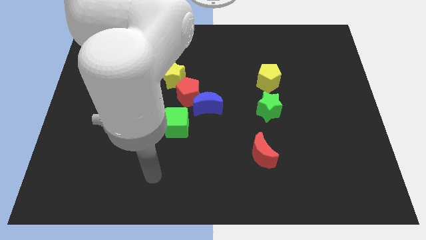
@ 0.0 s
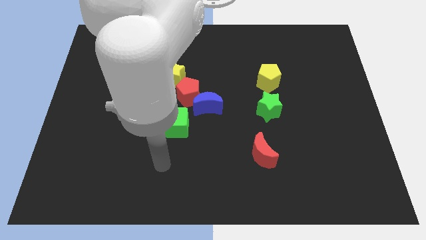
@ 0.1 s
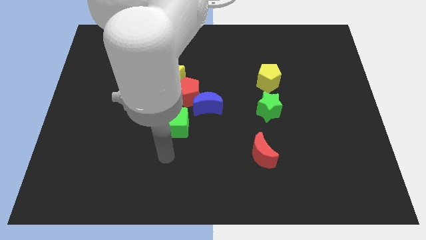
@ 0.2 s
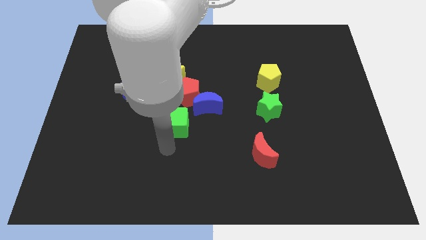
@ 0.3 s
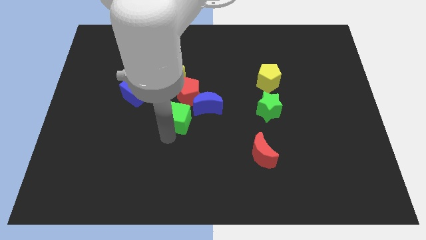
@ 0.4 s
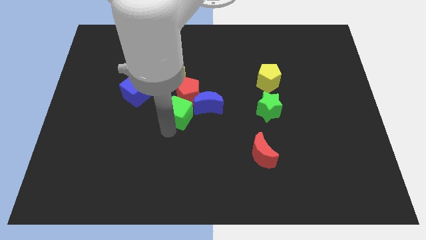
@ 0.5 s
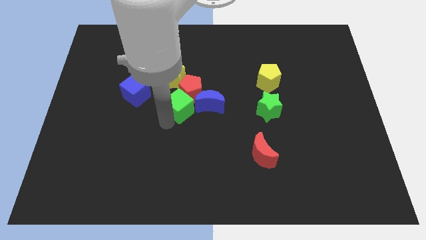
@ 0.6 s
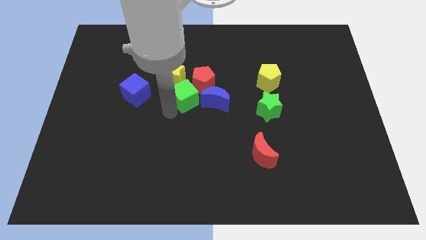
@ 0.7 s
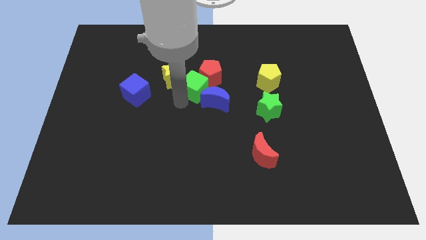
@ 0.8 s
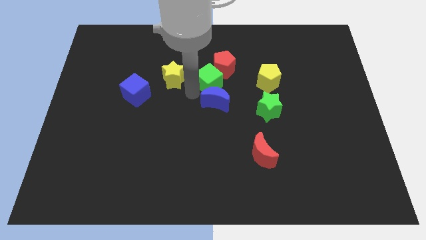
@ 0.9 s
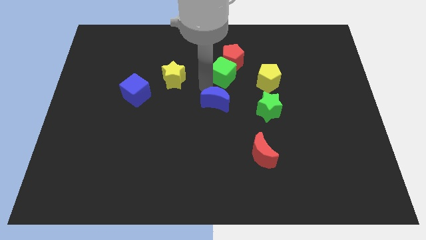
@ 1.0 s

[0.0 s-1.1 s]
move the blue moon away from the red pentagon and green cube

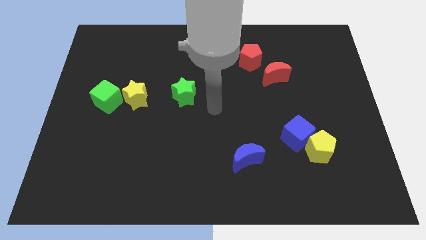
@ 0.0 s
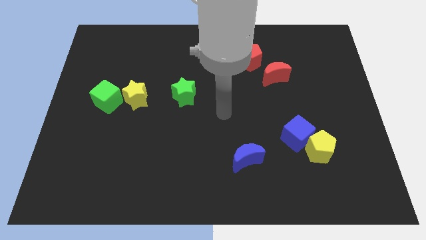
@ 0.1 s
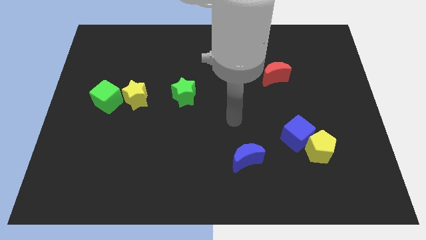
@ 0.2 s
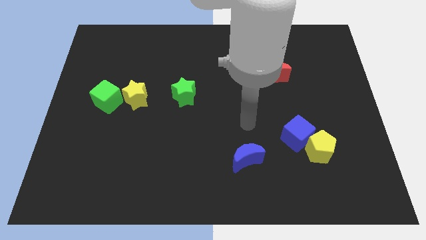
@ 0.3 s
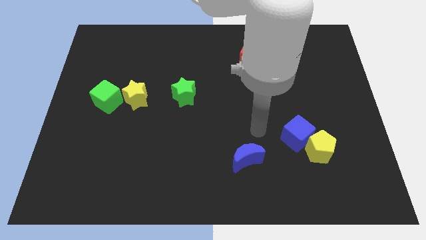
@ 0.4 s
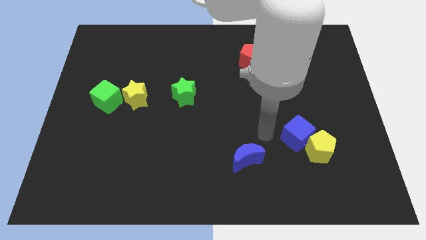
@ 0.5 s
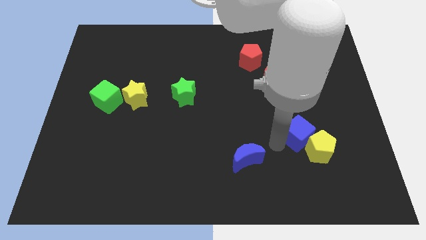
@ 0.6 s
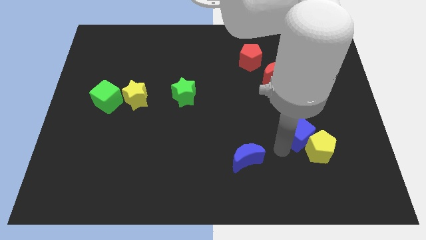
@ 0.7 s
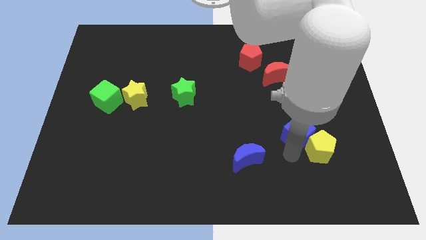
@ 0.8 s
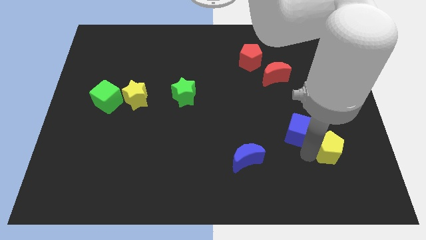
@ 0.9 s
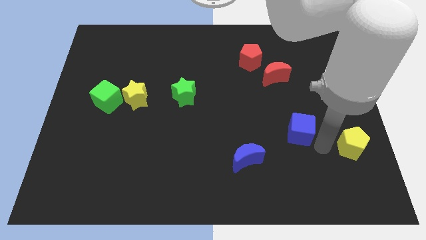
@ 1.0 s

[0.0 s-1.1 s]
pull the blue cube apart from the yellow pentagon

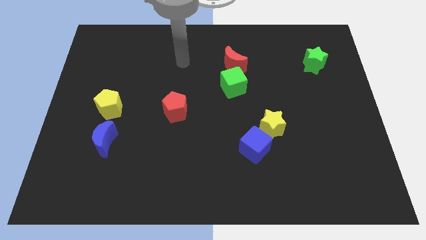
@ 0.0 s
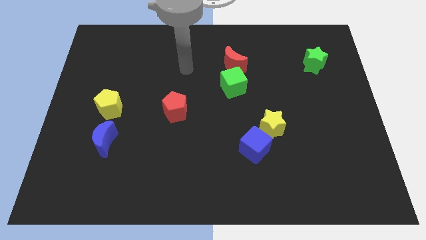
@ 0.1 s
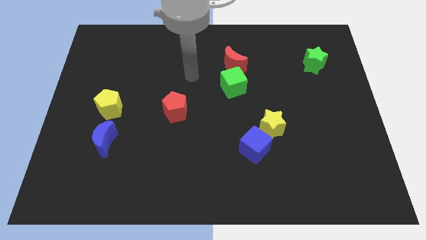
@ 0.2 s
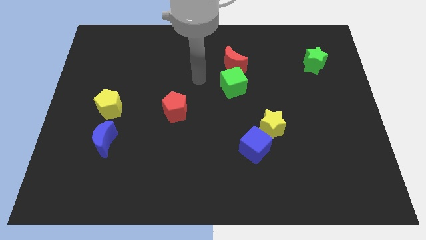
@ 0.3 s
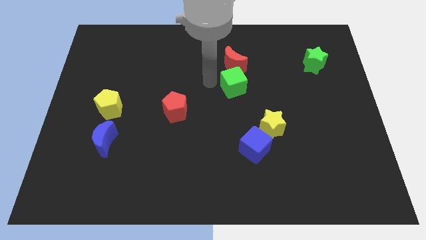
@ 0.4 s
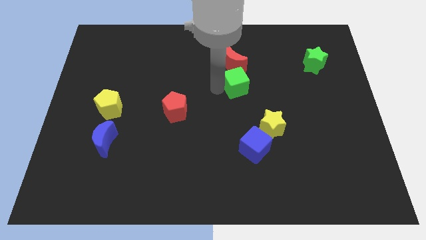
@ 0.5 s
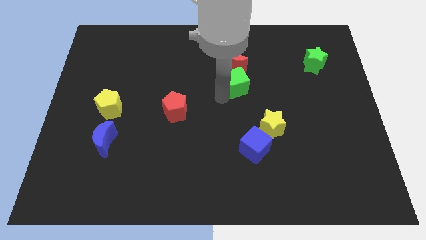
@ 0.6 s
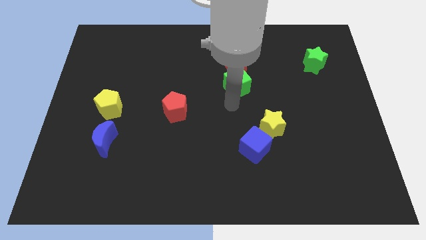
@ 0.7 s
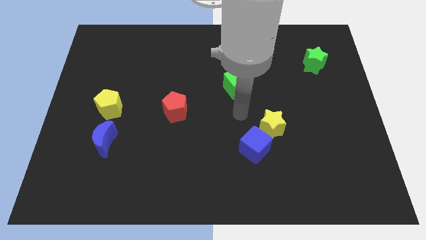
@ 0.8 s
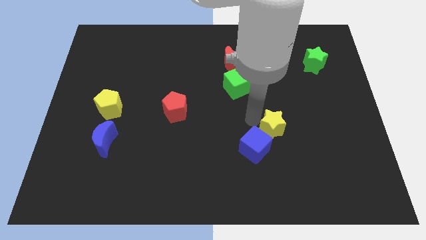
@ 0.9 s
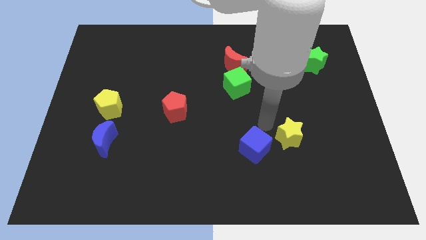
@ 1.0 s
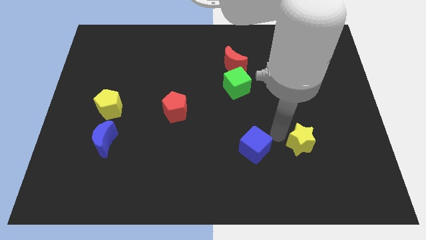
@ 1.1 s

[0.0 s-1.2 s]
separate the blue cube from the yellow star

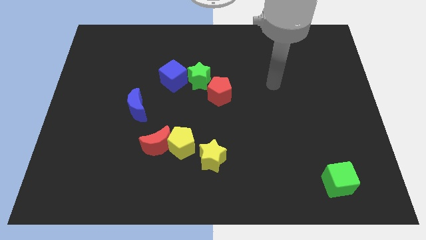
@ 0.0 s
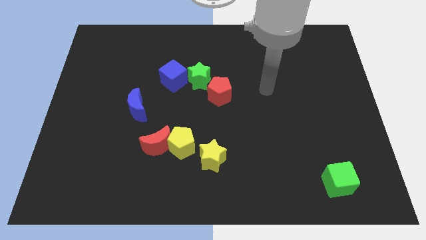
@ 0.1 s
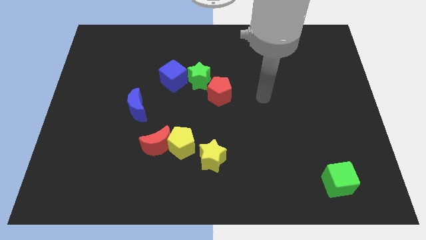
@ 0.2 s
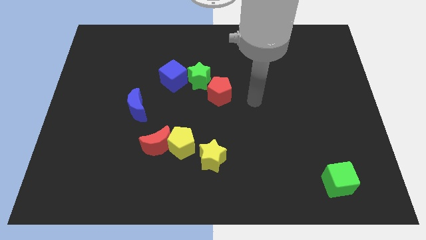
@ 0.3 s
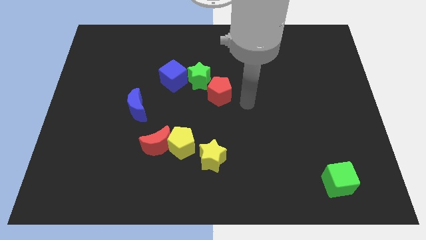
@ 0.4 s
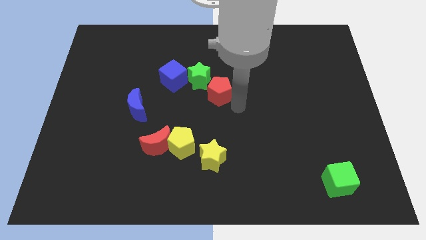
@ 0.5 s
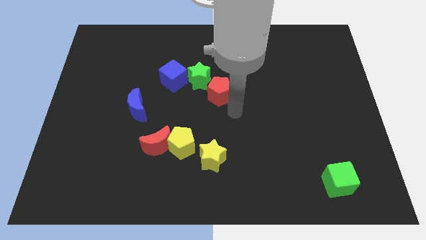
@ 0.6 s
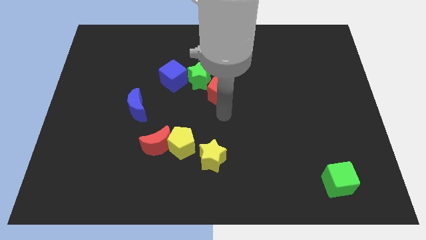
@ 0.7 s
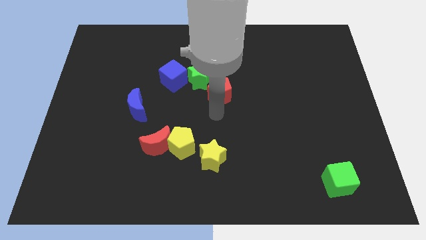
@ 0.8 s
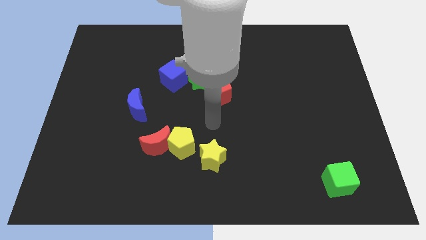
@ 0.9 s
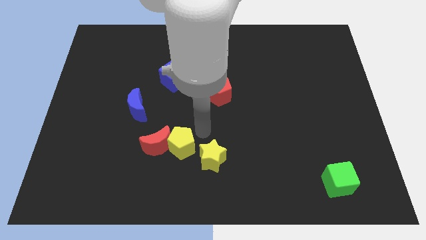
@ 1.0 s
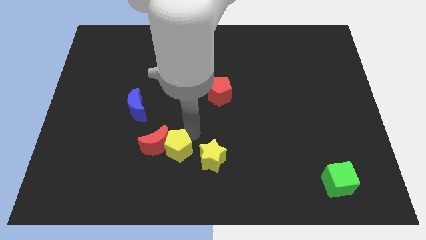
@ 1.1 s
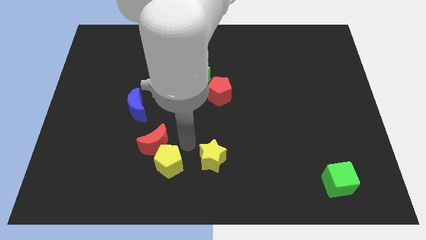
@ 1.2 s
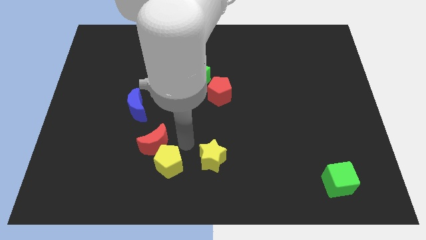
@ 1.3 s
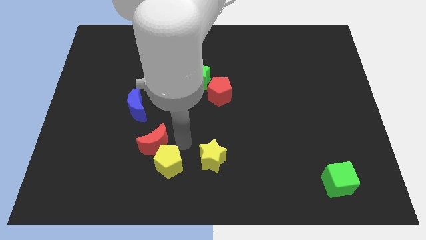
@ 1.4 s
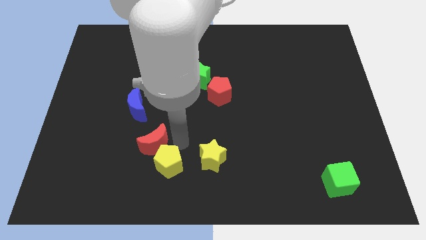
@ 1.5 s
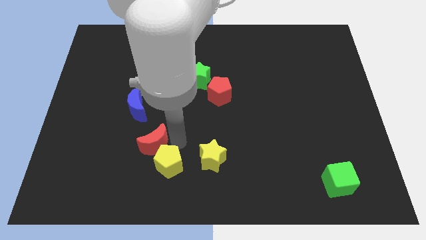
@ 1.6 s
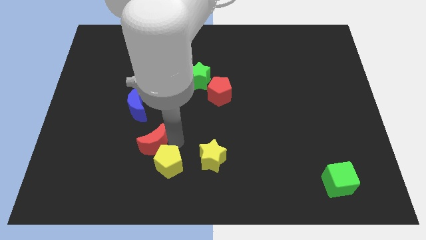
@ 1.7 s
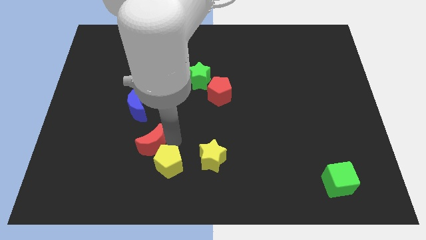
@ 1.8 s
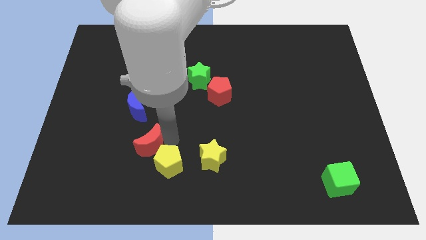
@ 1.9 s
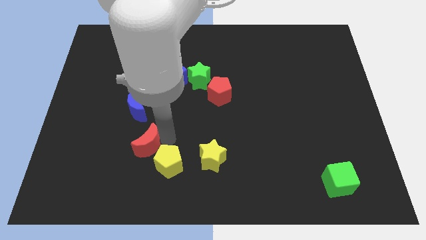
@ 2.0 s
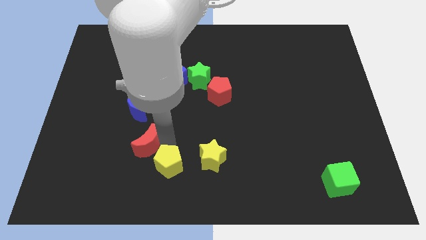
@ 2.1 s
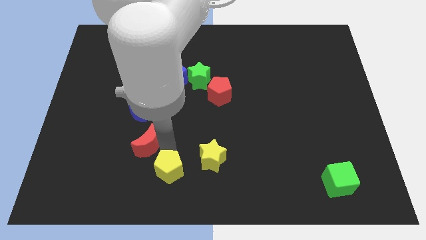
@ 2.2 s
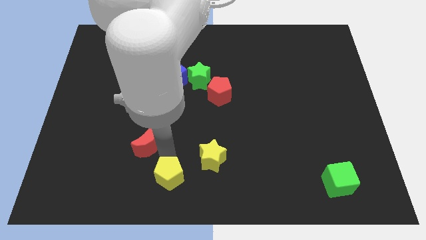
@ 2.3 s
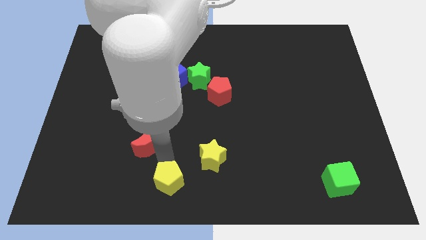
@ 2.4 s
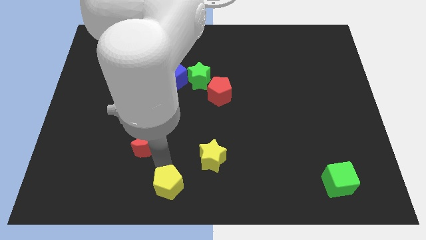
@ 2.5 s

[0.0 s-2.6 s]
separate the red moon from the yellow pentagon

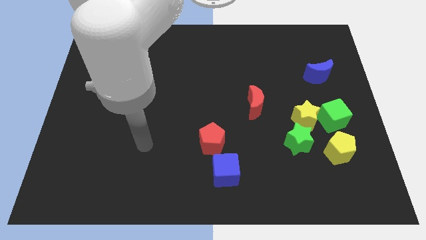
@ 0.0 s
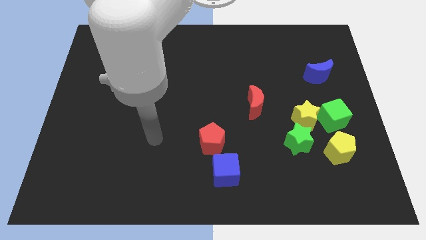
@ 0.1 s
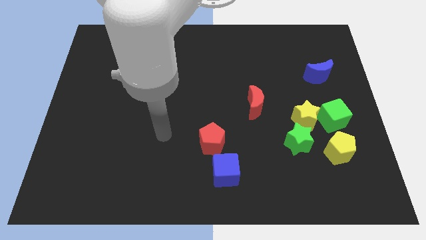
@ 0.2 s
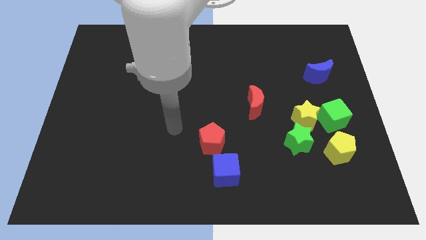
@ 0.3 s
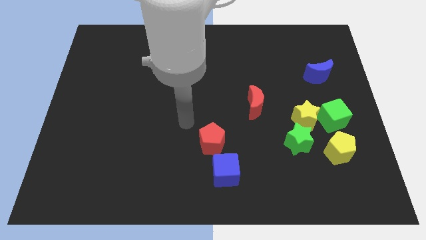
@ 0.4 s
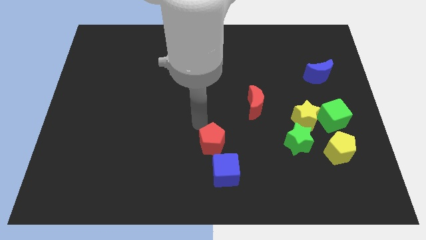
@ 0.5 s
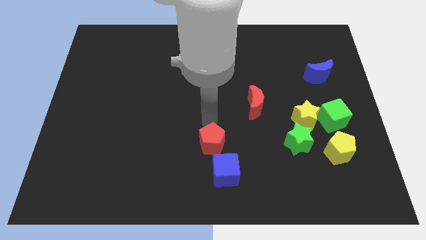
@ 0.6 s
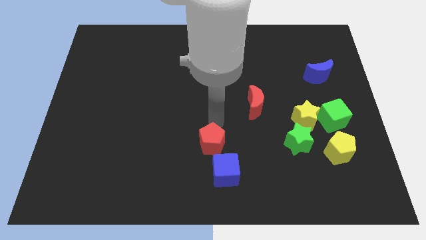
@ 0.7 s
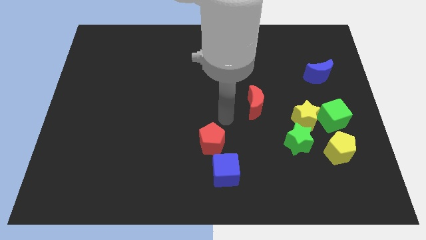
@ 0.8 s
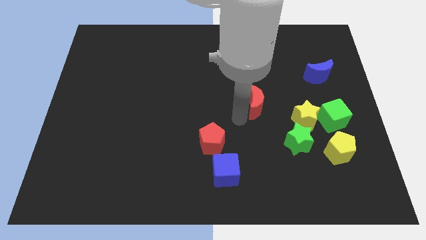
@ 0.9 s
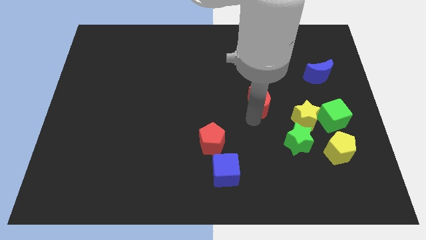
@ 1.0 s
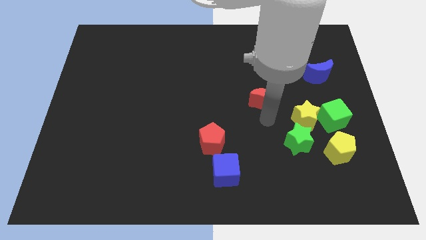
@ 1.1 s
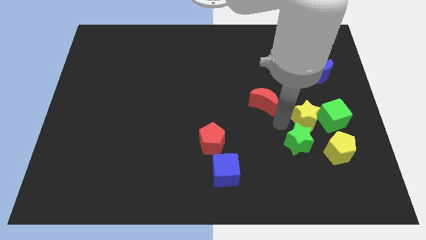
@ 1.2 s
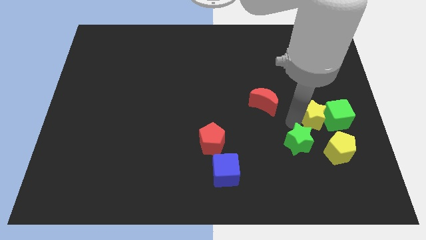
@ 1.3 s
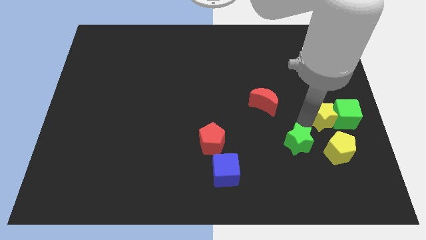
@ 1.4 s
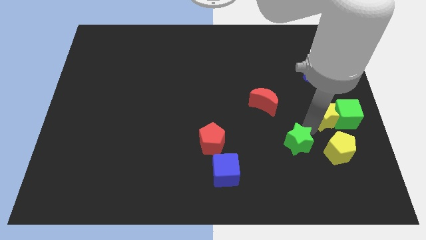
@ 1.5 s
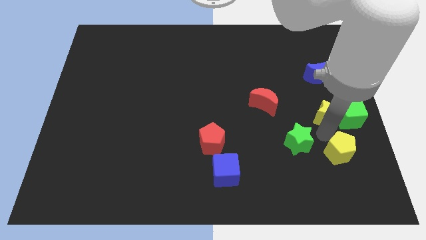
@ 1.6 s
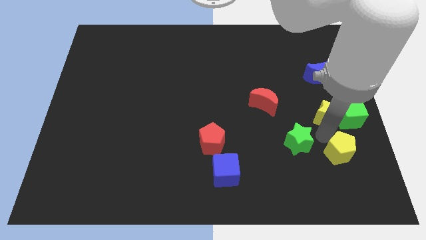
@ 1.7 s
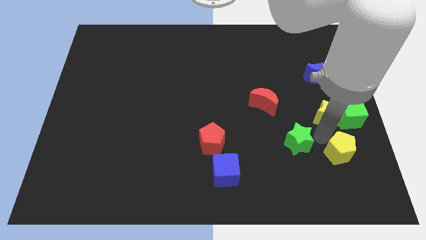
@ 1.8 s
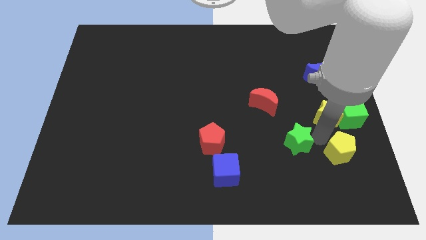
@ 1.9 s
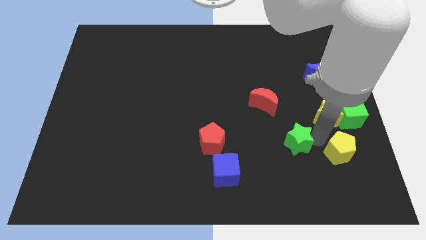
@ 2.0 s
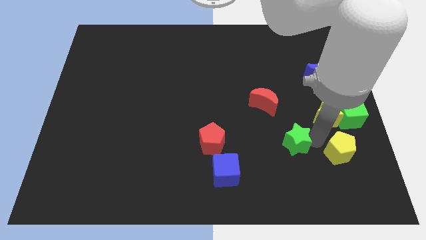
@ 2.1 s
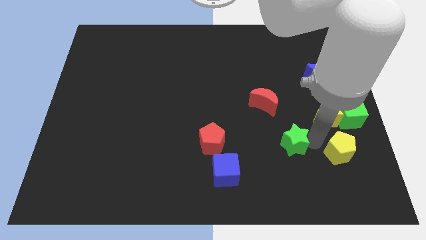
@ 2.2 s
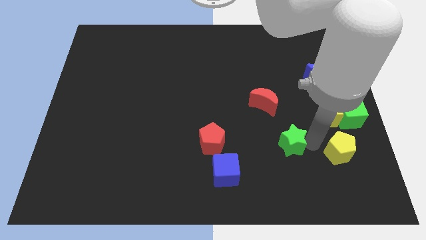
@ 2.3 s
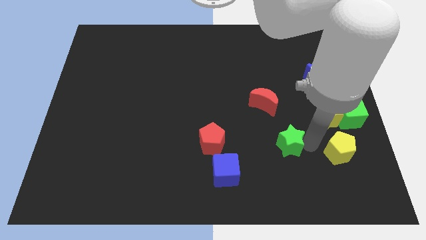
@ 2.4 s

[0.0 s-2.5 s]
move the green star away from the yellow star and yellow pentagon

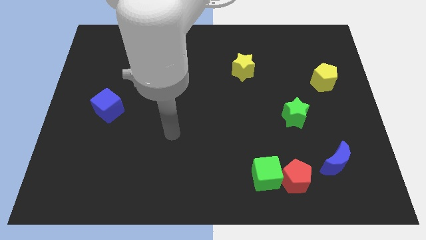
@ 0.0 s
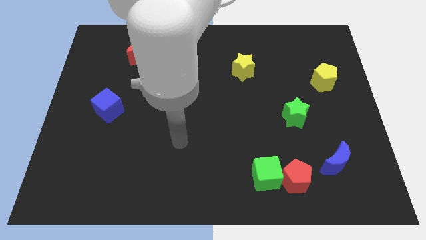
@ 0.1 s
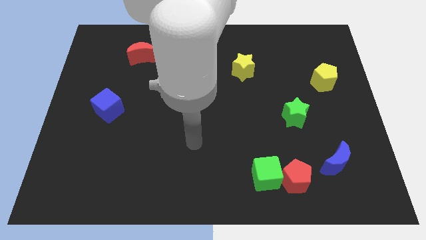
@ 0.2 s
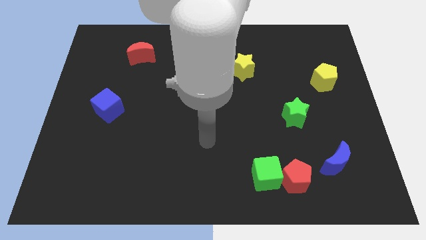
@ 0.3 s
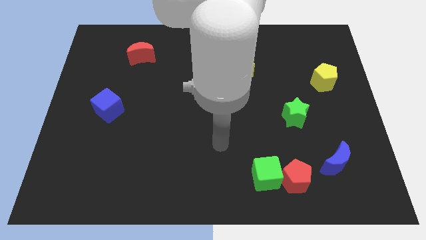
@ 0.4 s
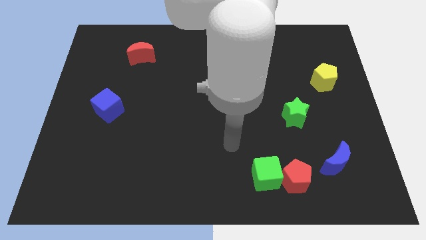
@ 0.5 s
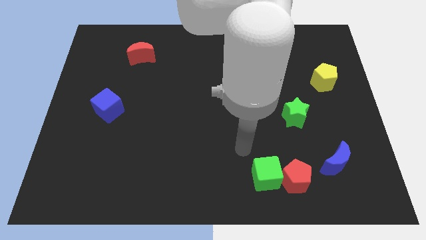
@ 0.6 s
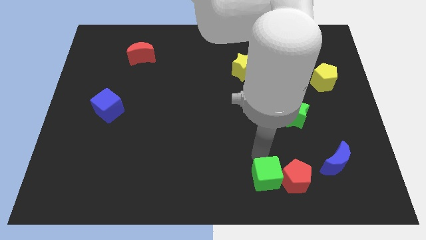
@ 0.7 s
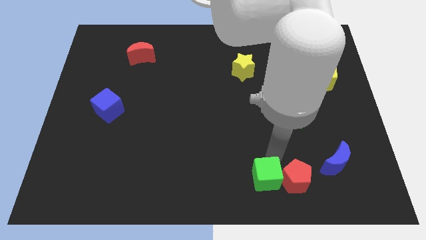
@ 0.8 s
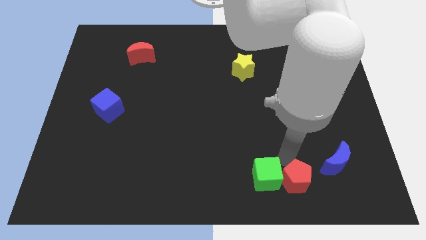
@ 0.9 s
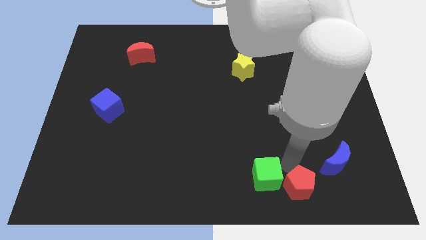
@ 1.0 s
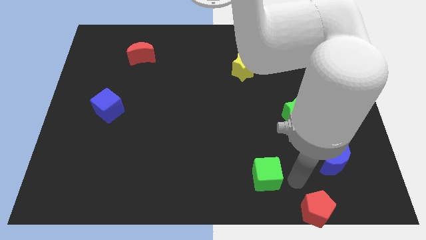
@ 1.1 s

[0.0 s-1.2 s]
pull the green cube apart from the red pentagon
